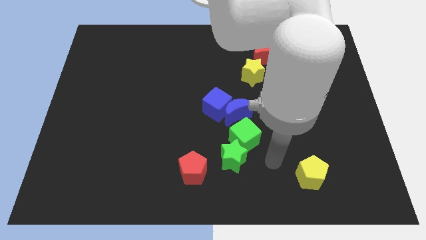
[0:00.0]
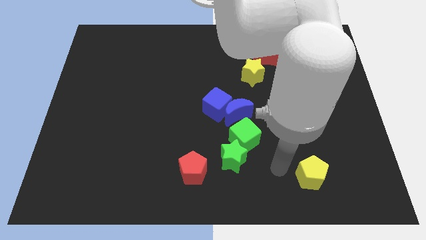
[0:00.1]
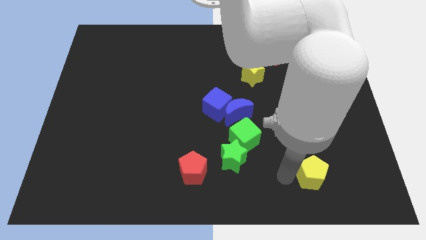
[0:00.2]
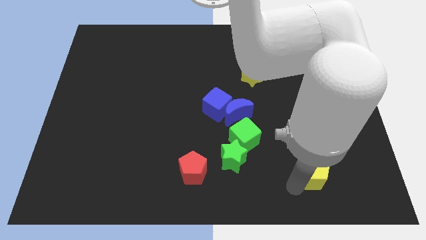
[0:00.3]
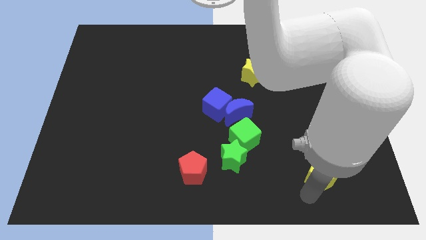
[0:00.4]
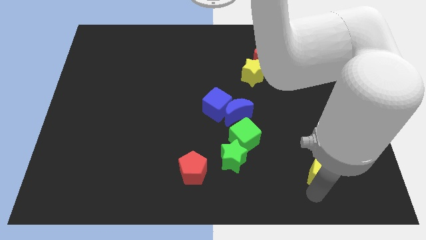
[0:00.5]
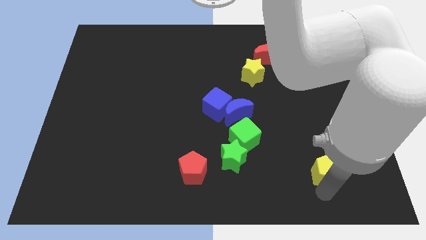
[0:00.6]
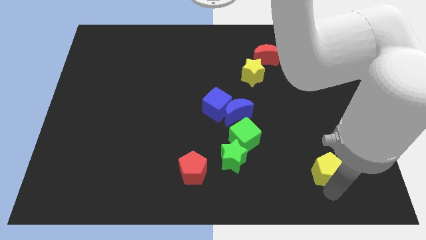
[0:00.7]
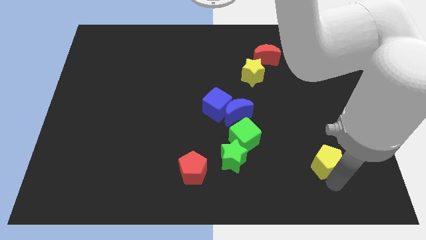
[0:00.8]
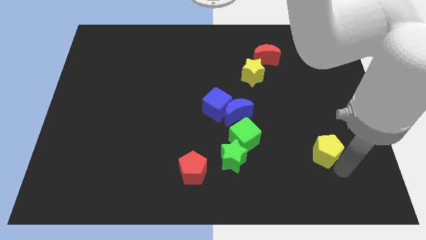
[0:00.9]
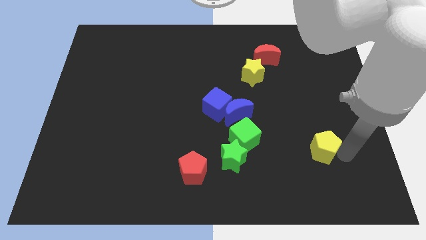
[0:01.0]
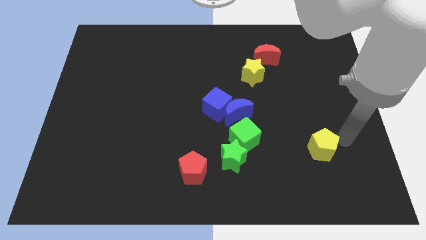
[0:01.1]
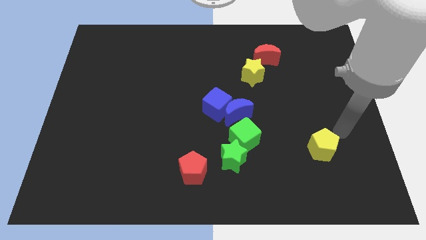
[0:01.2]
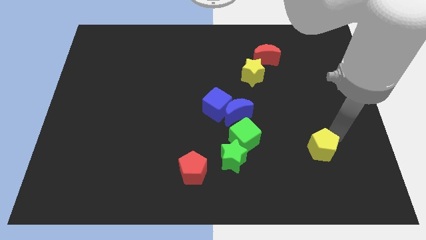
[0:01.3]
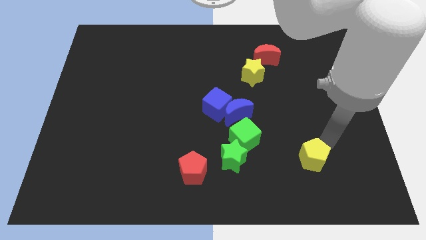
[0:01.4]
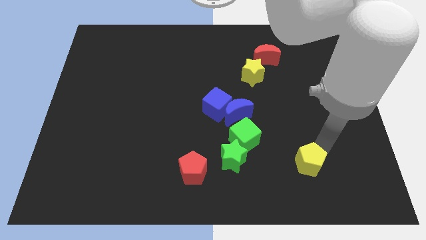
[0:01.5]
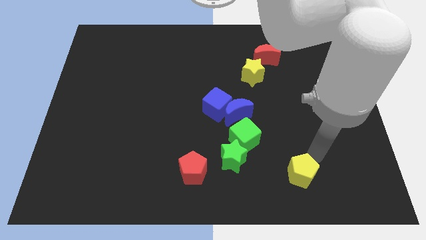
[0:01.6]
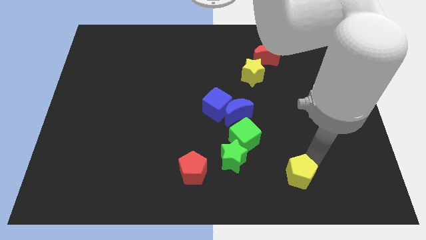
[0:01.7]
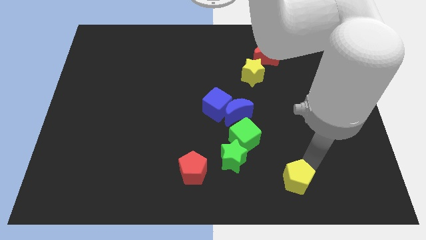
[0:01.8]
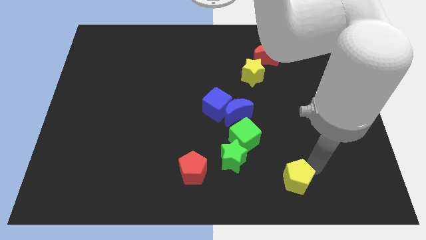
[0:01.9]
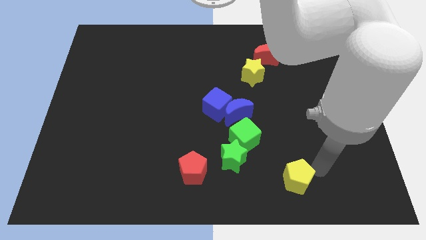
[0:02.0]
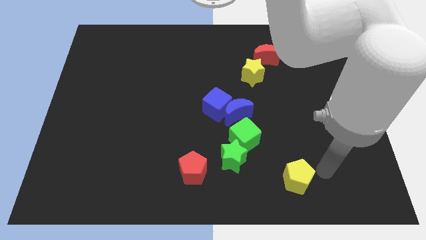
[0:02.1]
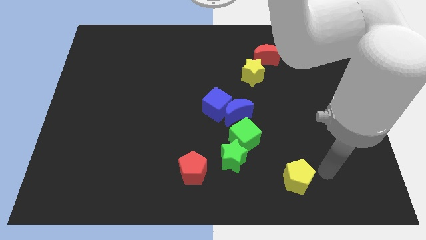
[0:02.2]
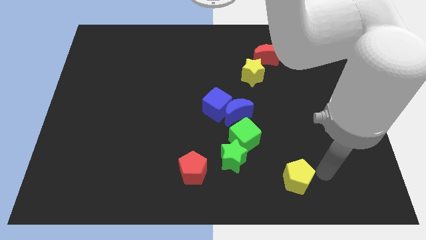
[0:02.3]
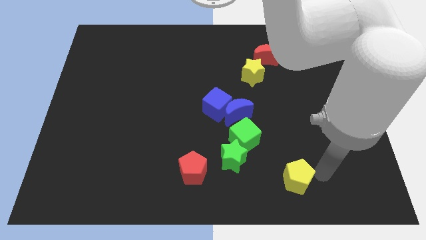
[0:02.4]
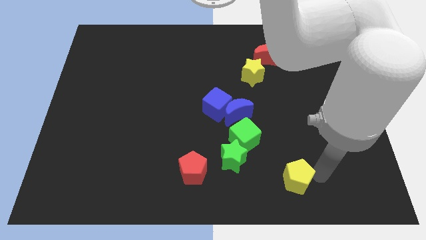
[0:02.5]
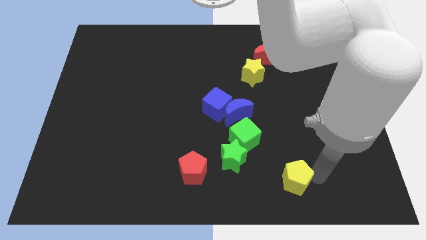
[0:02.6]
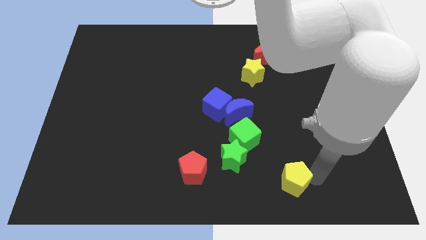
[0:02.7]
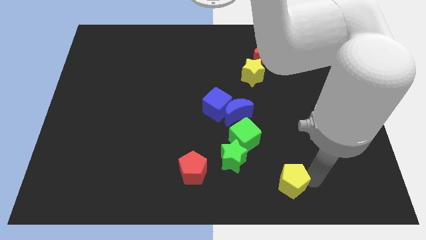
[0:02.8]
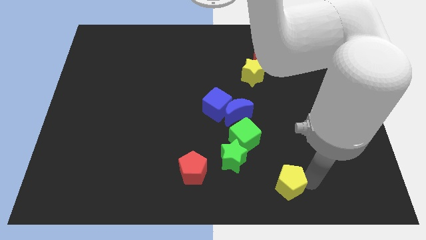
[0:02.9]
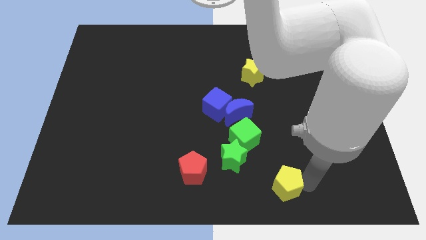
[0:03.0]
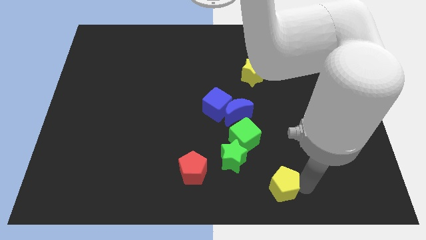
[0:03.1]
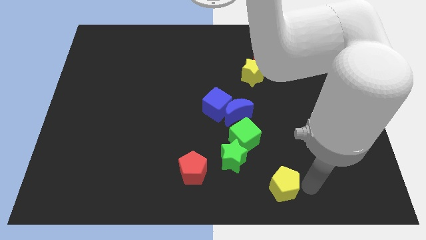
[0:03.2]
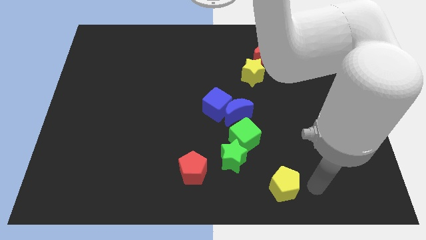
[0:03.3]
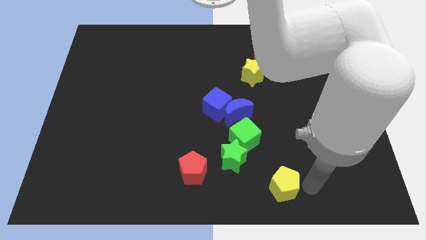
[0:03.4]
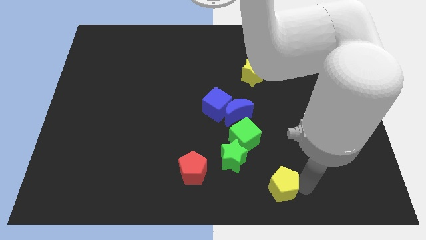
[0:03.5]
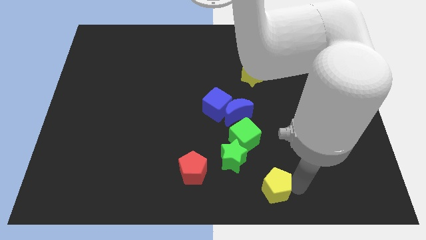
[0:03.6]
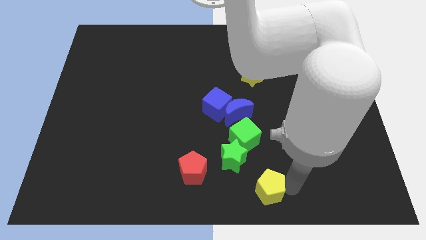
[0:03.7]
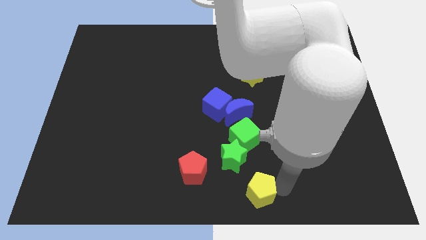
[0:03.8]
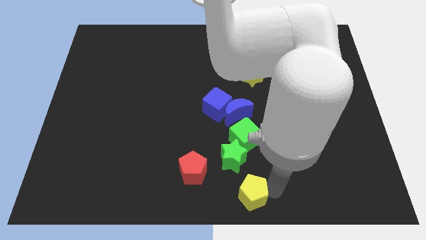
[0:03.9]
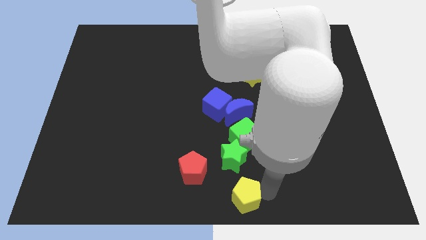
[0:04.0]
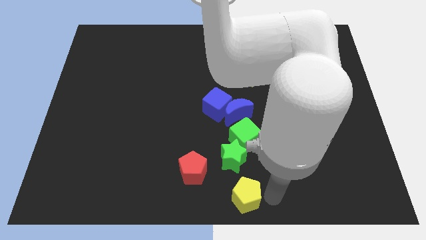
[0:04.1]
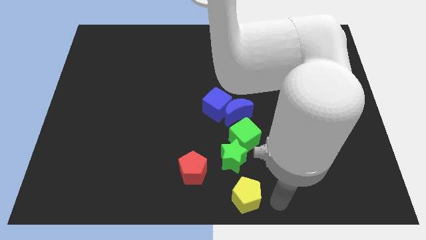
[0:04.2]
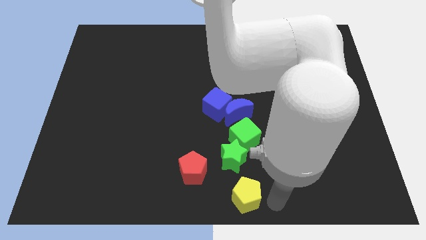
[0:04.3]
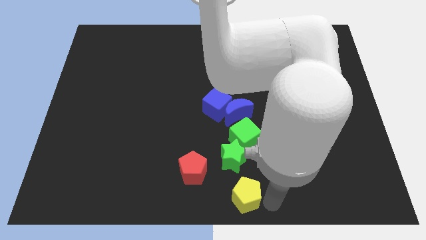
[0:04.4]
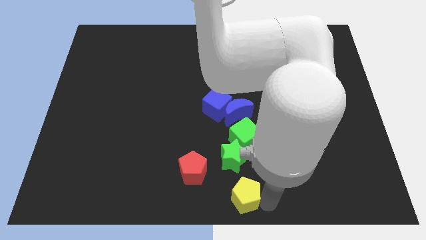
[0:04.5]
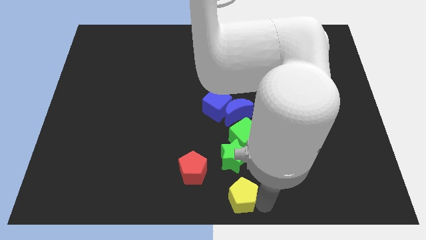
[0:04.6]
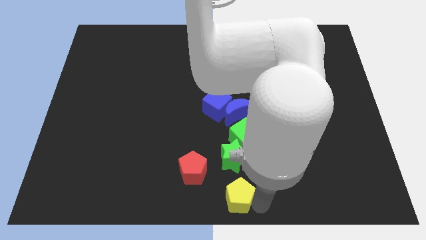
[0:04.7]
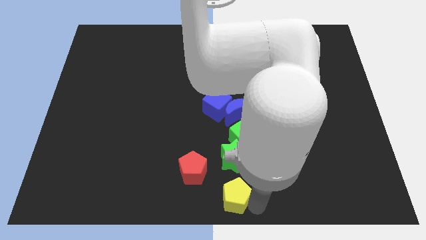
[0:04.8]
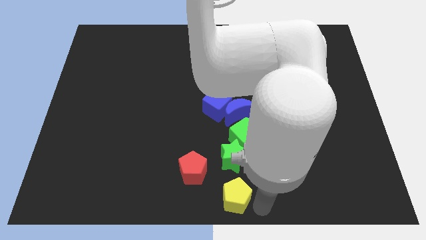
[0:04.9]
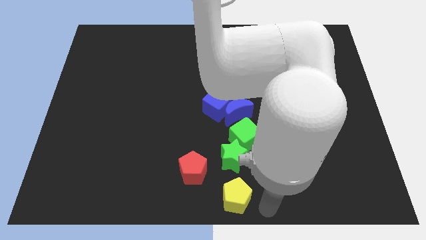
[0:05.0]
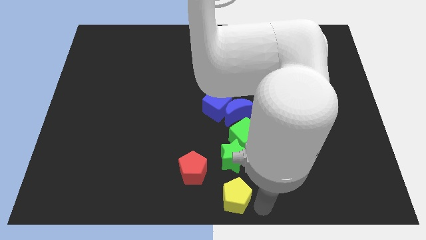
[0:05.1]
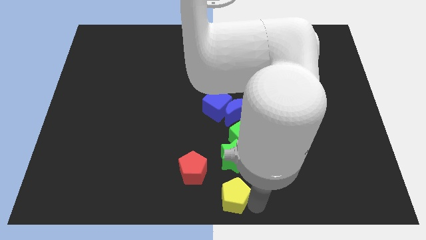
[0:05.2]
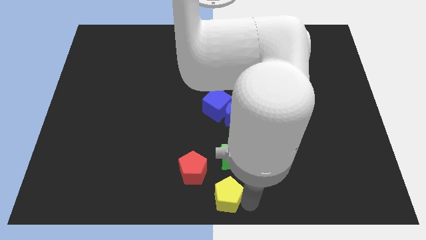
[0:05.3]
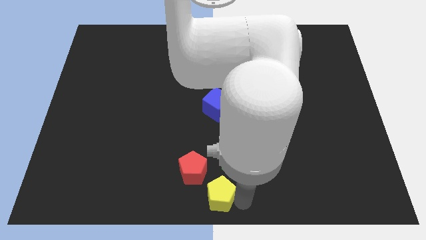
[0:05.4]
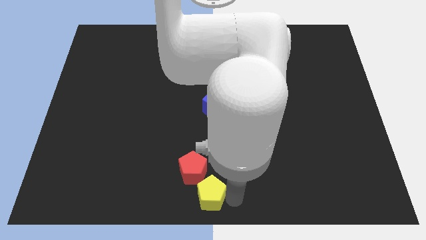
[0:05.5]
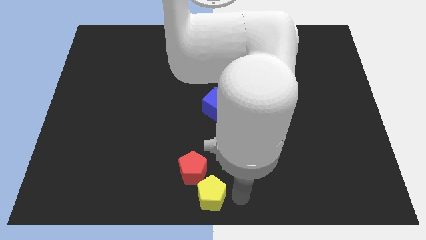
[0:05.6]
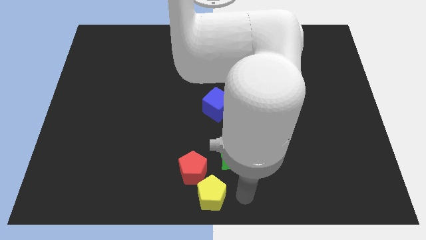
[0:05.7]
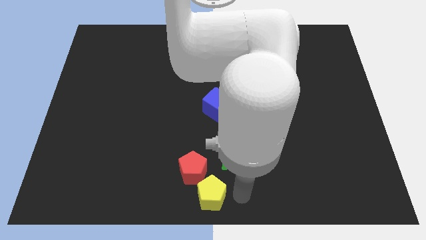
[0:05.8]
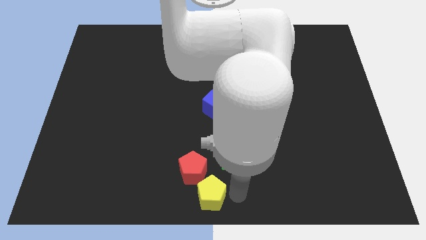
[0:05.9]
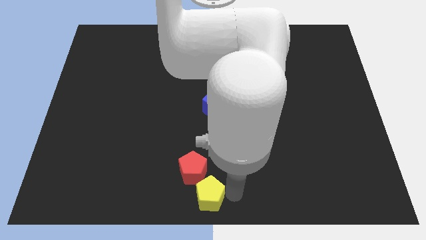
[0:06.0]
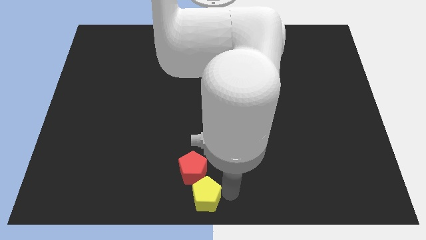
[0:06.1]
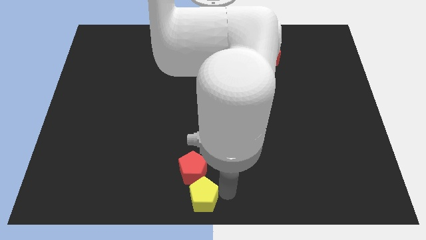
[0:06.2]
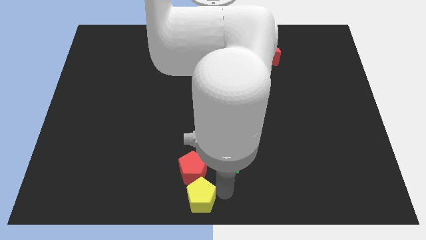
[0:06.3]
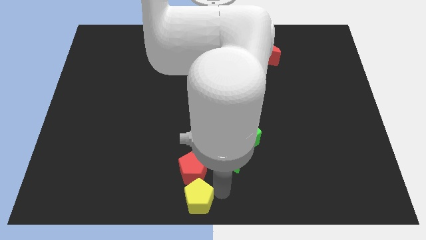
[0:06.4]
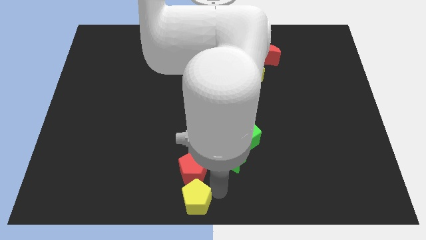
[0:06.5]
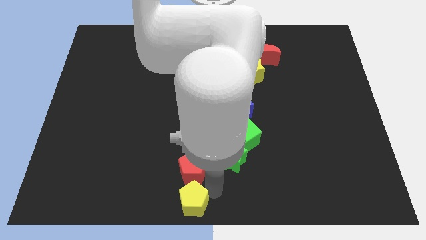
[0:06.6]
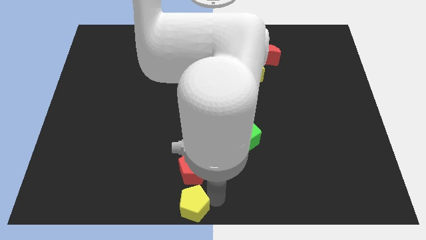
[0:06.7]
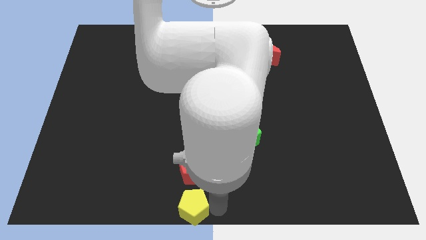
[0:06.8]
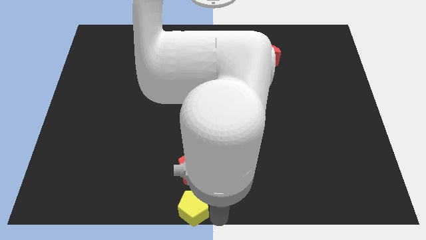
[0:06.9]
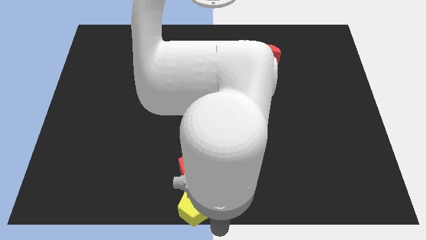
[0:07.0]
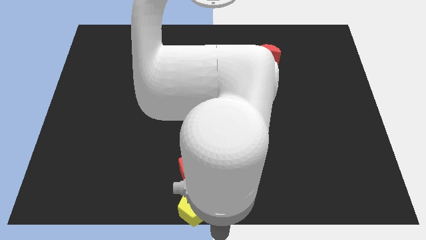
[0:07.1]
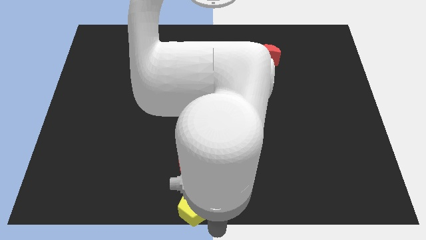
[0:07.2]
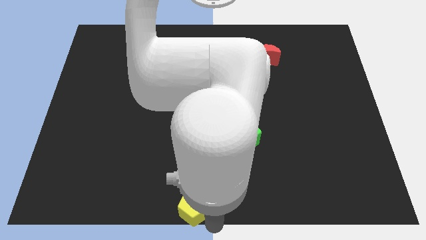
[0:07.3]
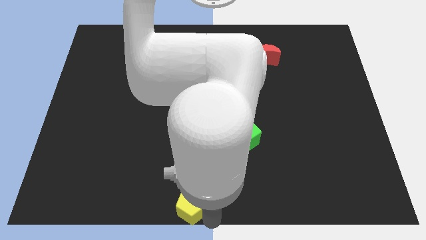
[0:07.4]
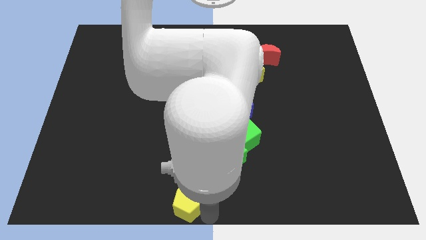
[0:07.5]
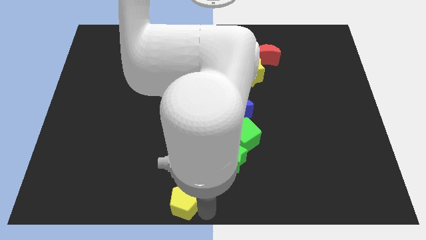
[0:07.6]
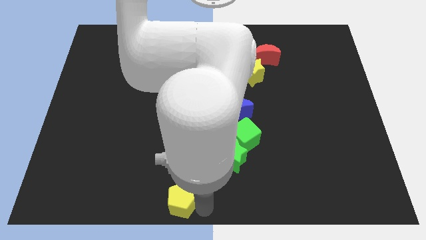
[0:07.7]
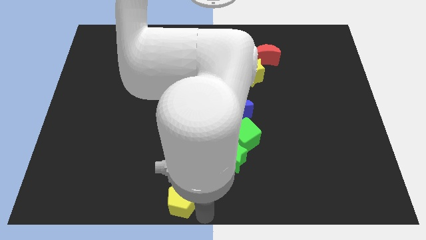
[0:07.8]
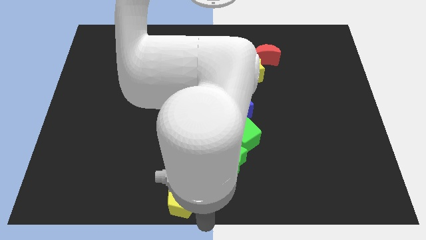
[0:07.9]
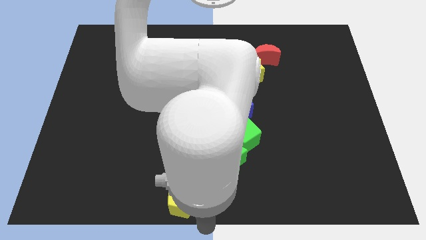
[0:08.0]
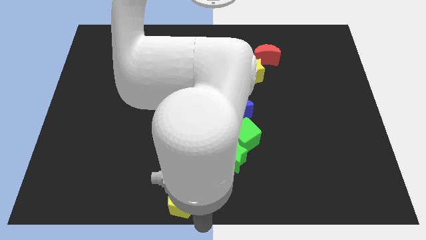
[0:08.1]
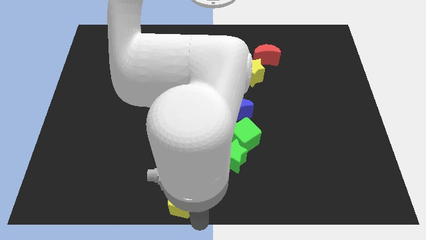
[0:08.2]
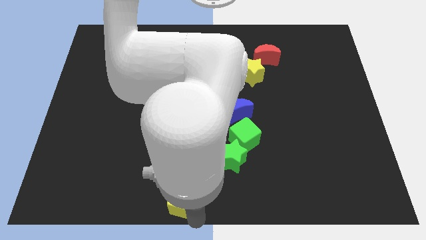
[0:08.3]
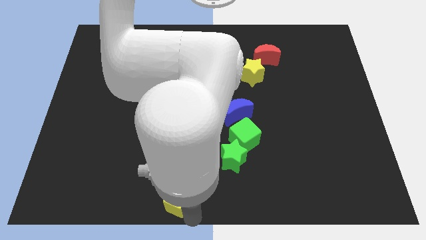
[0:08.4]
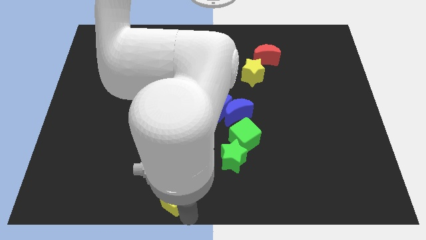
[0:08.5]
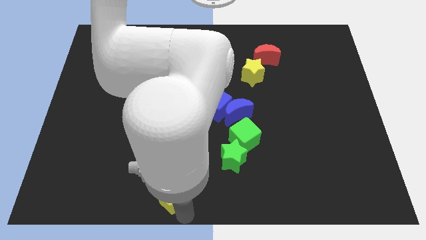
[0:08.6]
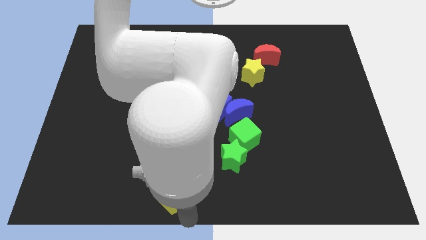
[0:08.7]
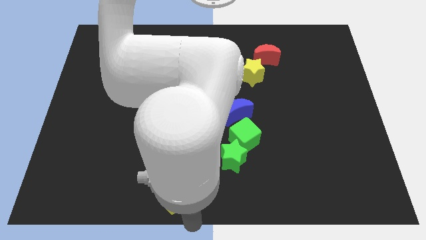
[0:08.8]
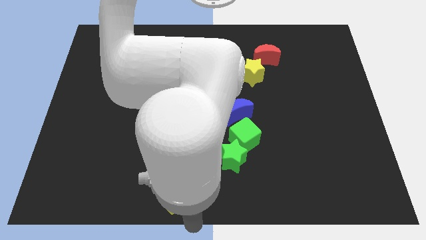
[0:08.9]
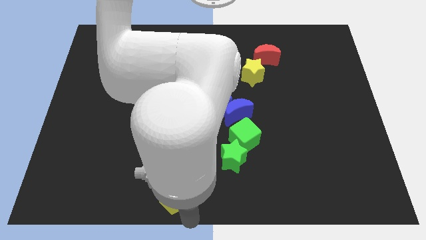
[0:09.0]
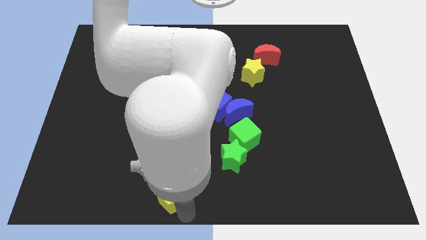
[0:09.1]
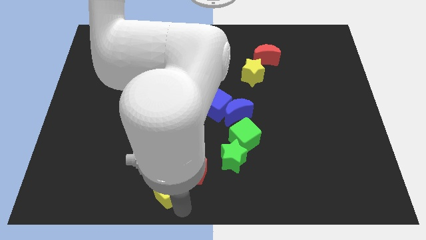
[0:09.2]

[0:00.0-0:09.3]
slide the yellow pentagon left of the red pentagon
